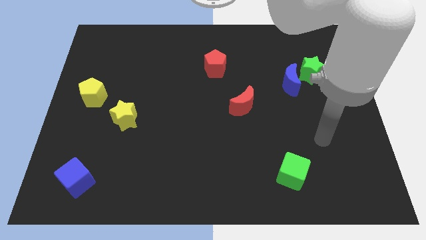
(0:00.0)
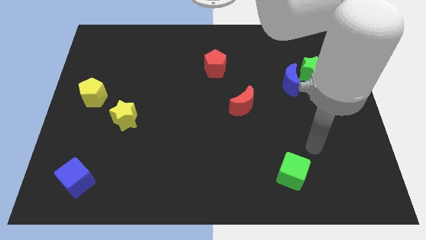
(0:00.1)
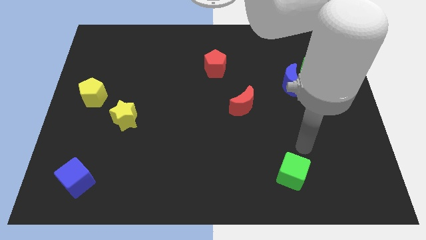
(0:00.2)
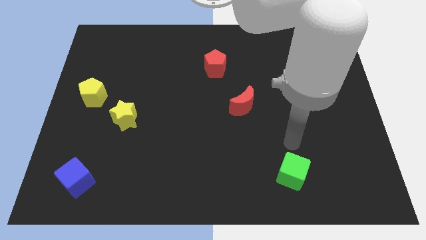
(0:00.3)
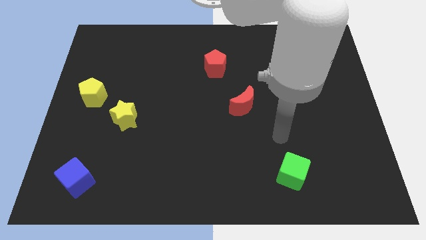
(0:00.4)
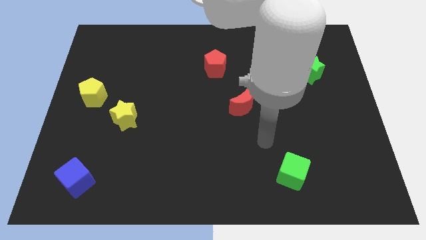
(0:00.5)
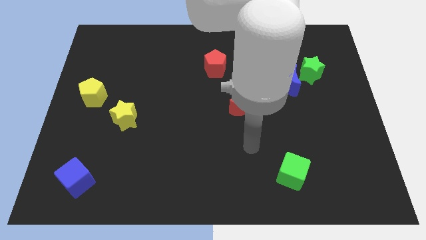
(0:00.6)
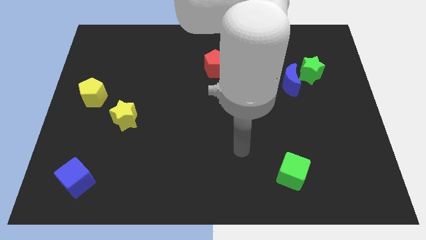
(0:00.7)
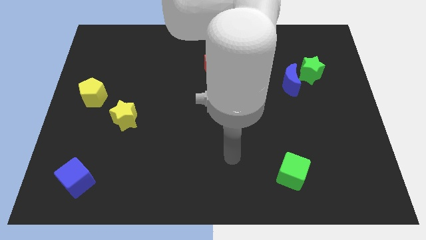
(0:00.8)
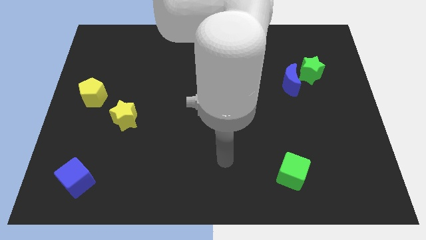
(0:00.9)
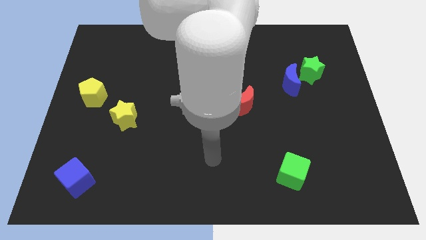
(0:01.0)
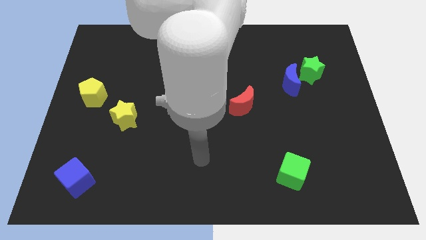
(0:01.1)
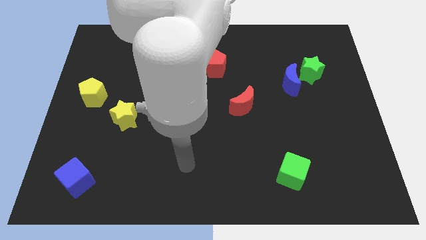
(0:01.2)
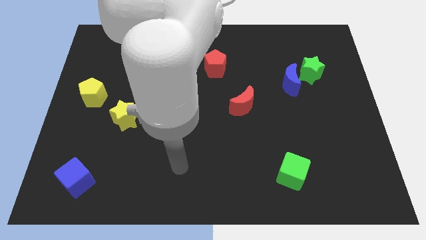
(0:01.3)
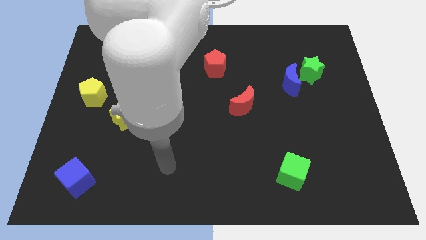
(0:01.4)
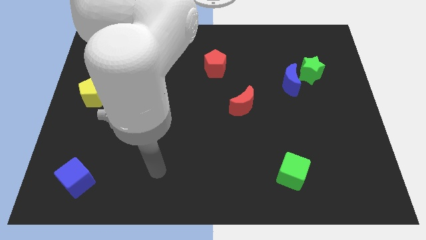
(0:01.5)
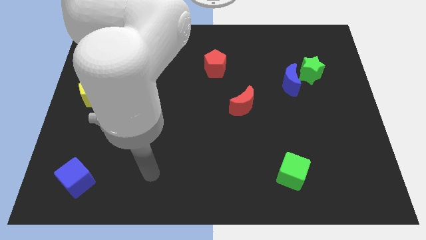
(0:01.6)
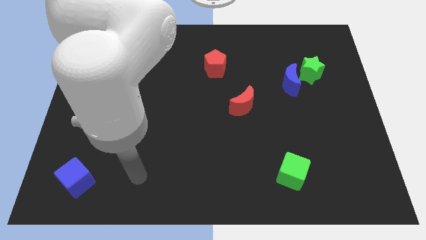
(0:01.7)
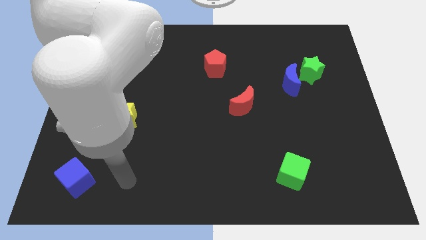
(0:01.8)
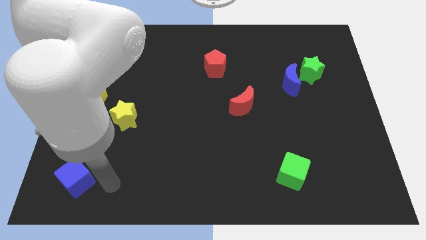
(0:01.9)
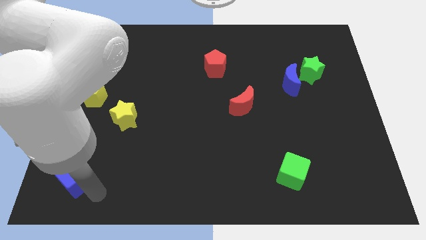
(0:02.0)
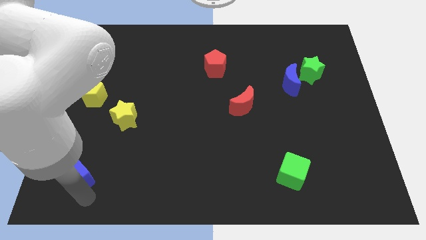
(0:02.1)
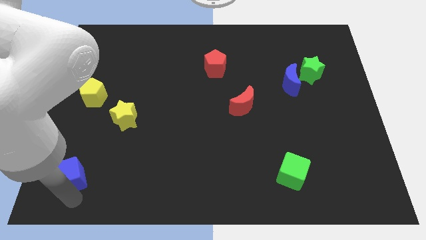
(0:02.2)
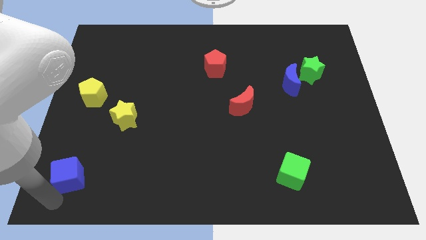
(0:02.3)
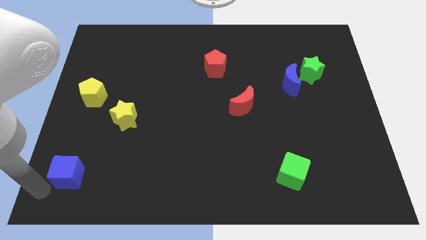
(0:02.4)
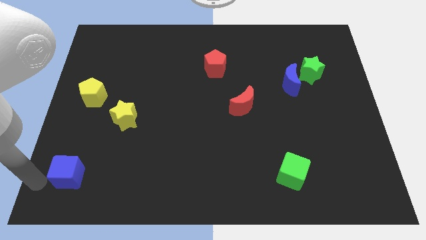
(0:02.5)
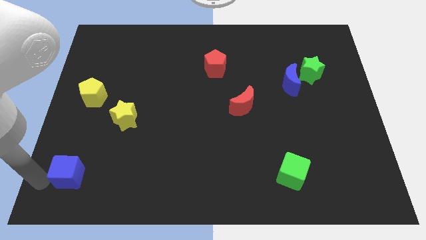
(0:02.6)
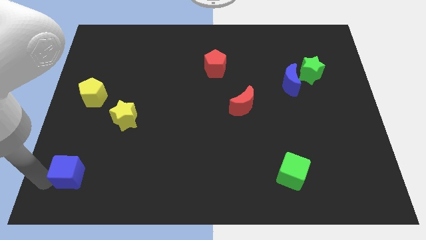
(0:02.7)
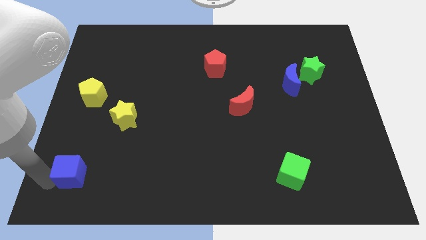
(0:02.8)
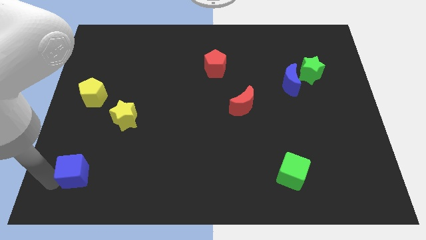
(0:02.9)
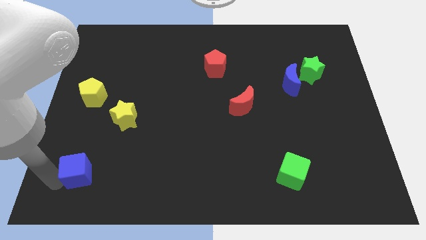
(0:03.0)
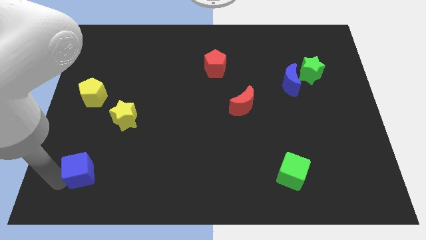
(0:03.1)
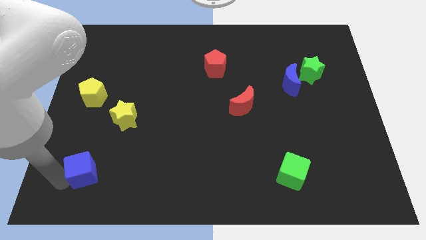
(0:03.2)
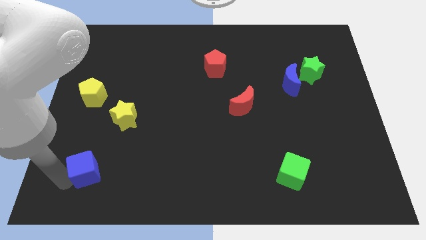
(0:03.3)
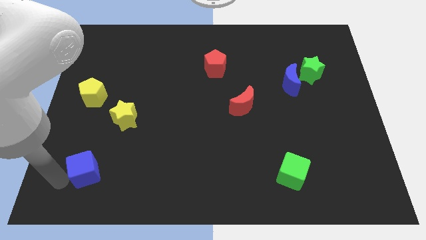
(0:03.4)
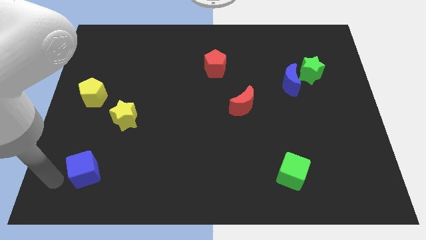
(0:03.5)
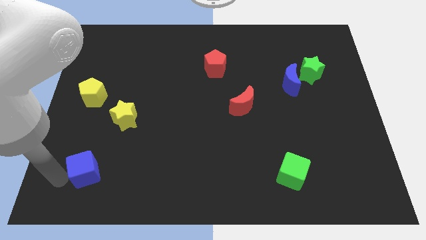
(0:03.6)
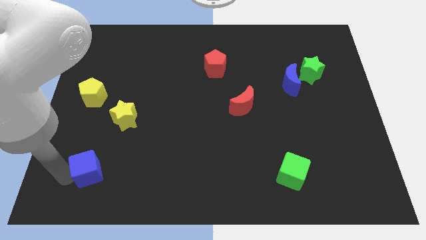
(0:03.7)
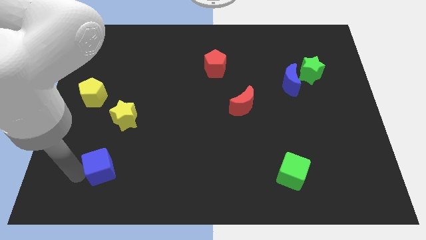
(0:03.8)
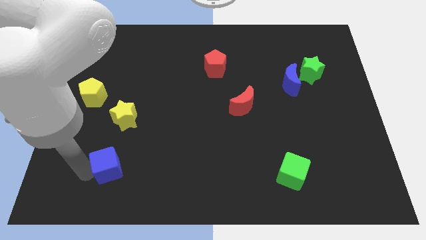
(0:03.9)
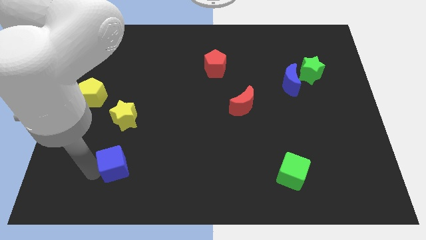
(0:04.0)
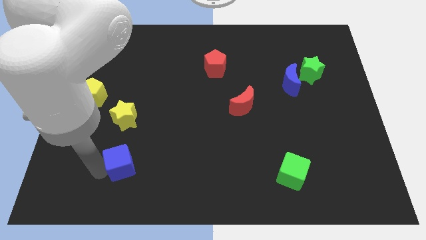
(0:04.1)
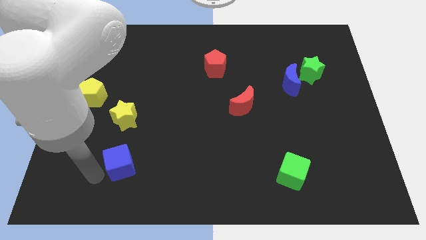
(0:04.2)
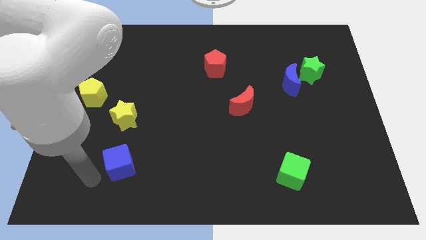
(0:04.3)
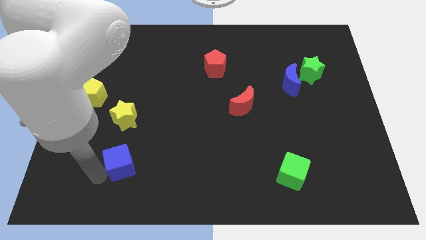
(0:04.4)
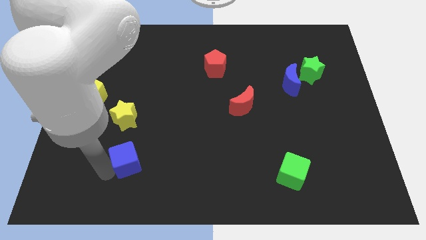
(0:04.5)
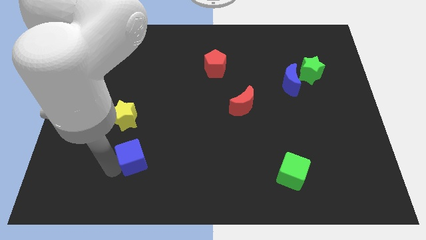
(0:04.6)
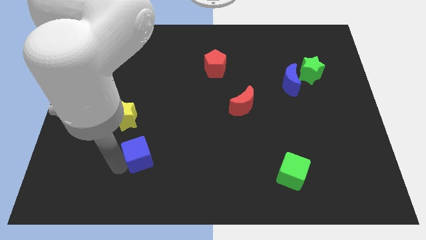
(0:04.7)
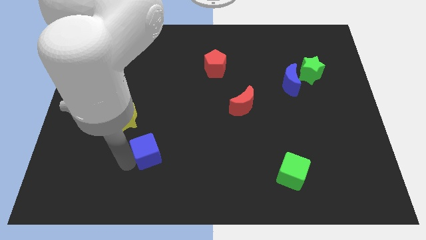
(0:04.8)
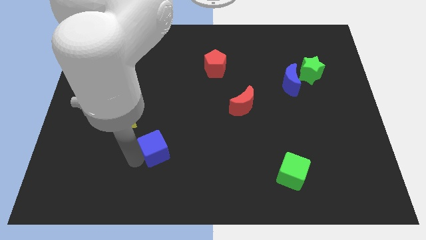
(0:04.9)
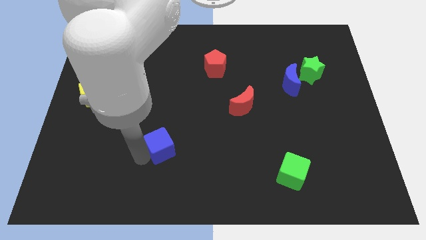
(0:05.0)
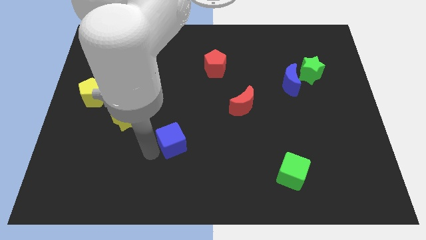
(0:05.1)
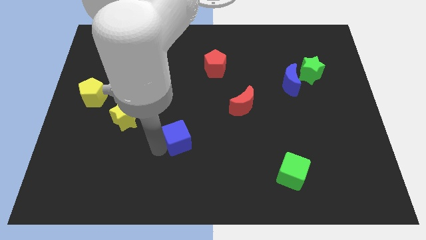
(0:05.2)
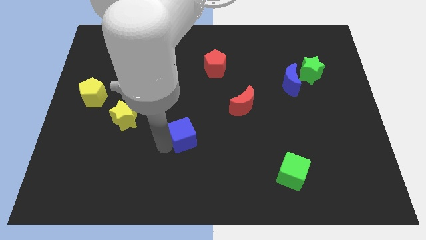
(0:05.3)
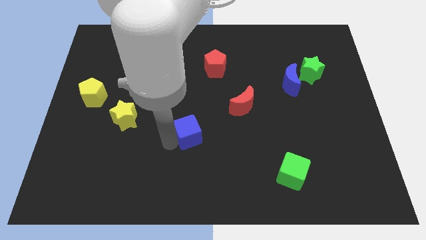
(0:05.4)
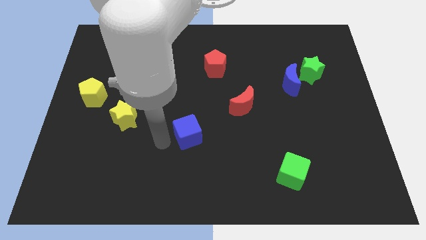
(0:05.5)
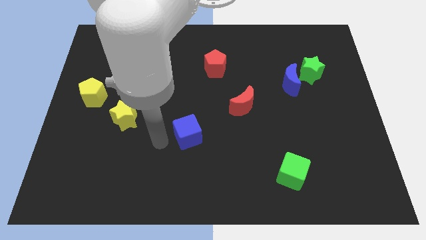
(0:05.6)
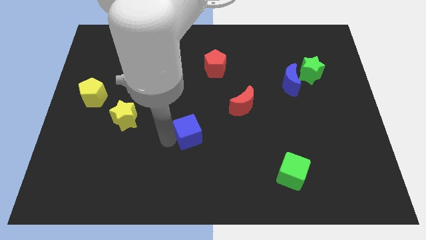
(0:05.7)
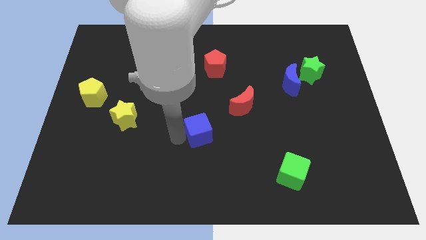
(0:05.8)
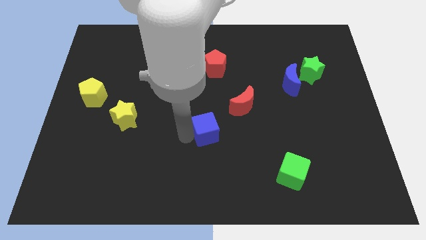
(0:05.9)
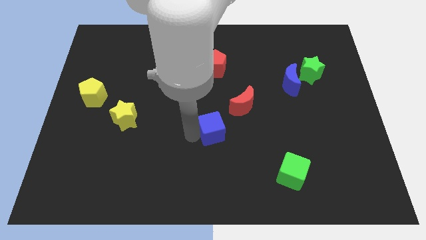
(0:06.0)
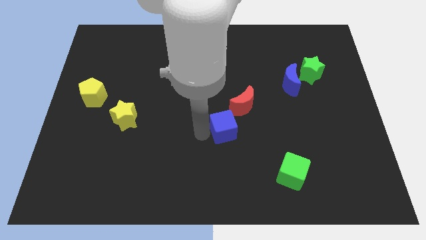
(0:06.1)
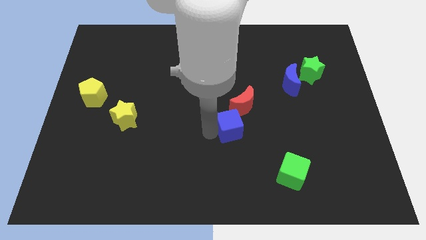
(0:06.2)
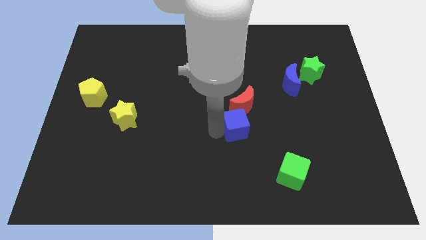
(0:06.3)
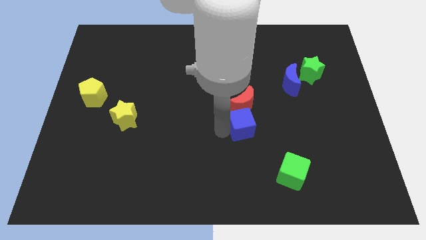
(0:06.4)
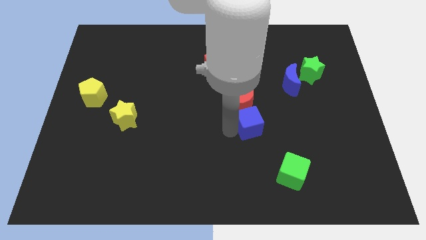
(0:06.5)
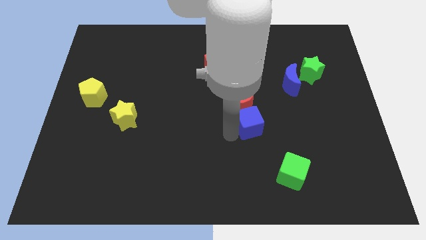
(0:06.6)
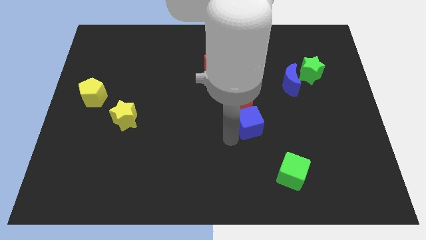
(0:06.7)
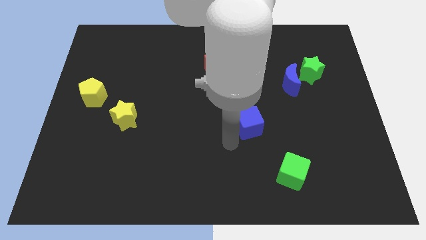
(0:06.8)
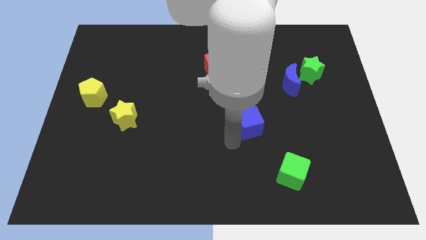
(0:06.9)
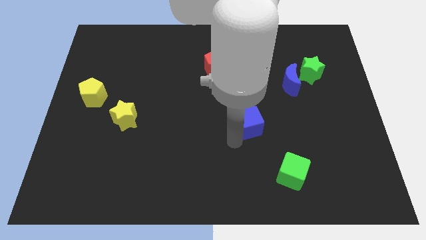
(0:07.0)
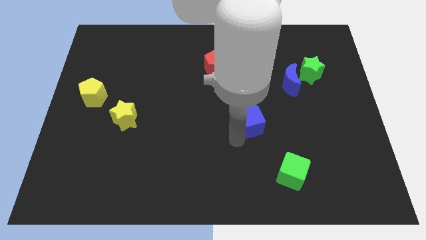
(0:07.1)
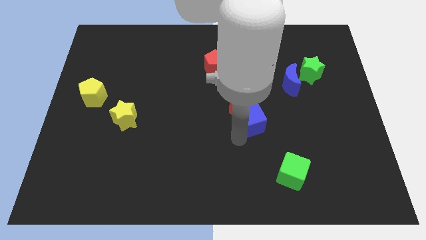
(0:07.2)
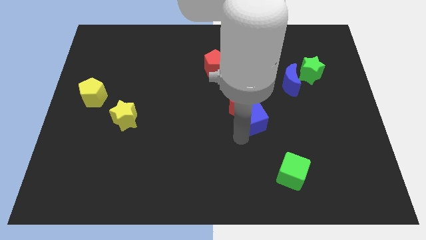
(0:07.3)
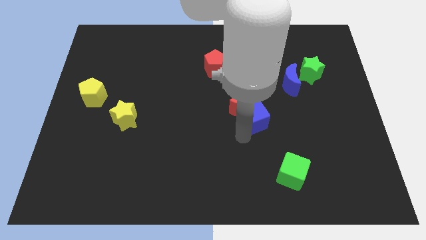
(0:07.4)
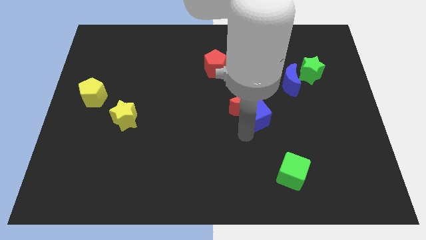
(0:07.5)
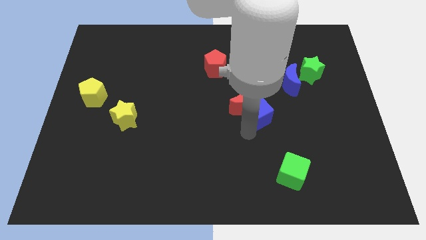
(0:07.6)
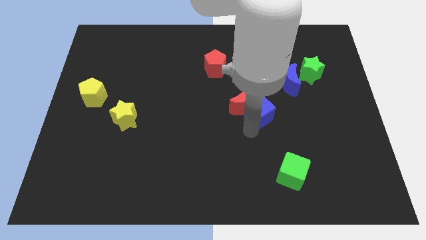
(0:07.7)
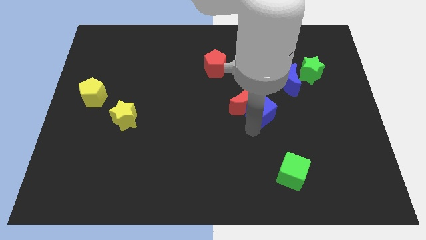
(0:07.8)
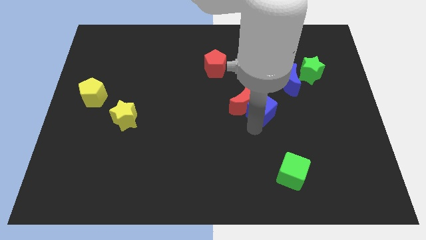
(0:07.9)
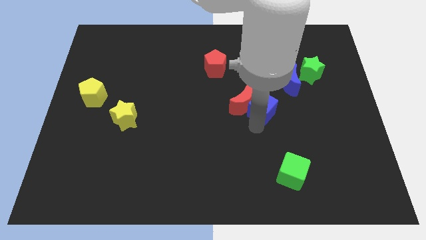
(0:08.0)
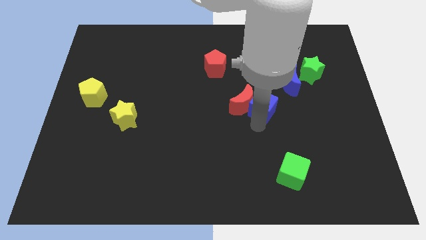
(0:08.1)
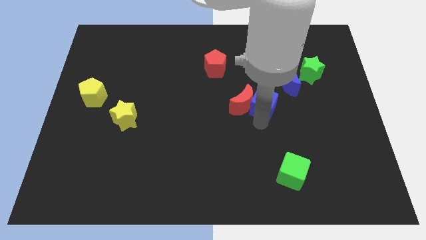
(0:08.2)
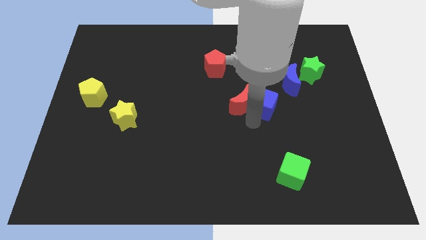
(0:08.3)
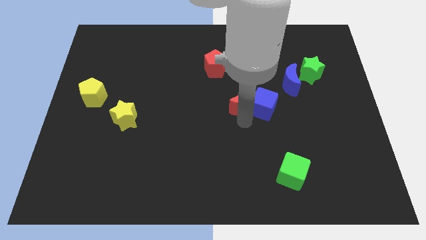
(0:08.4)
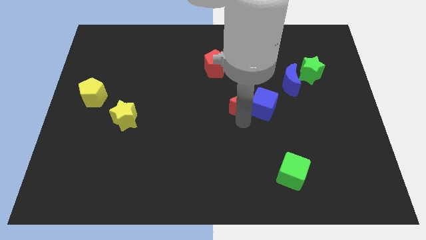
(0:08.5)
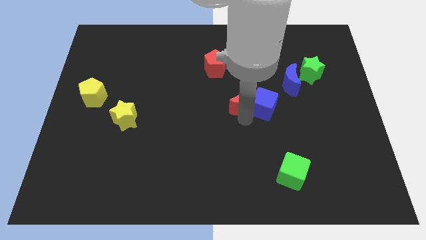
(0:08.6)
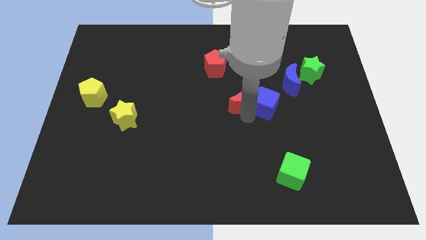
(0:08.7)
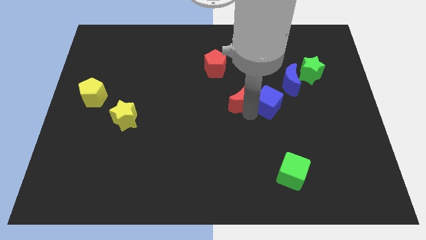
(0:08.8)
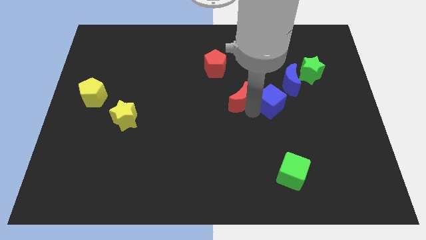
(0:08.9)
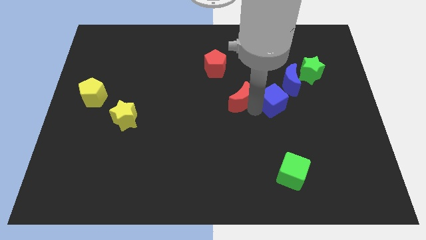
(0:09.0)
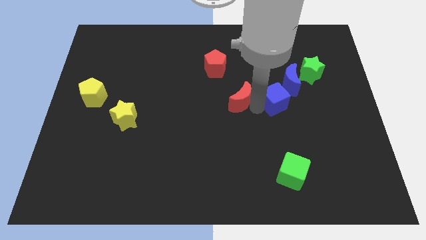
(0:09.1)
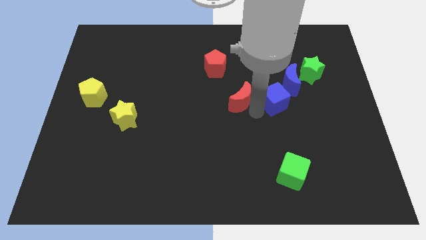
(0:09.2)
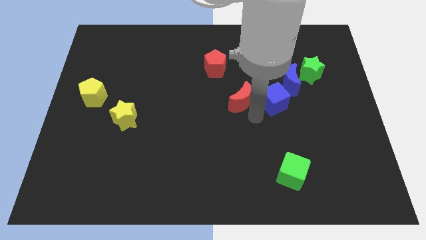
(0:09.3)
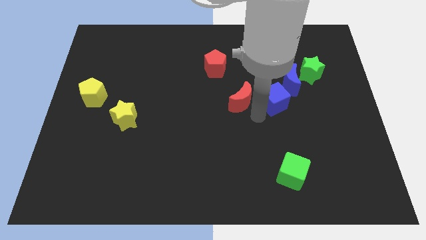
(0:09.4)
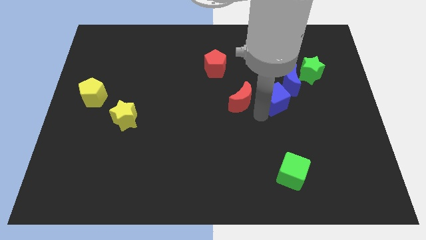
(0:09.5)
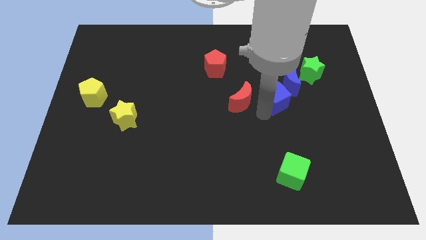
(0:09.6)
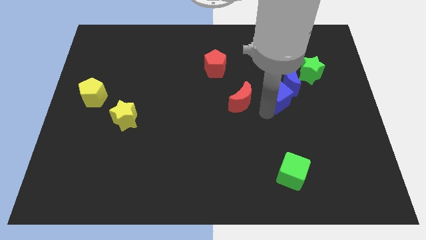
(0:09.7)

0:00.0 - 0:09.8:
slide the blue cube to the bottom left of the green star
